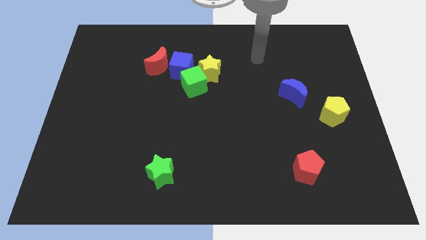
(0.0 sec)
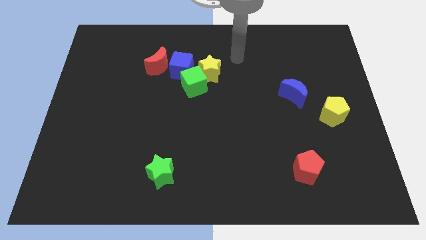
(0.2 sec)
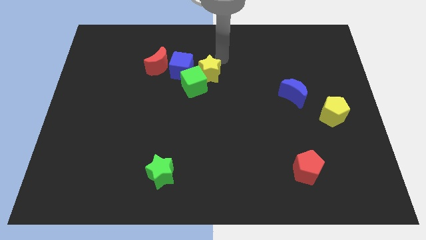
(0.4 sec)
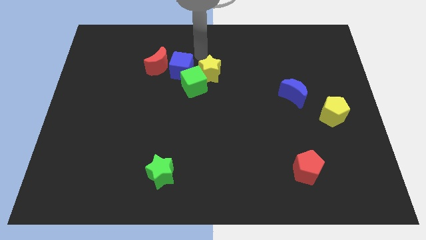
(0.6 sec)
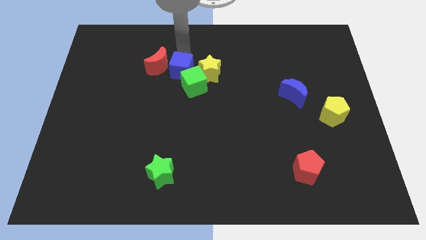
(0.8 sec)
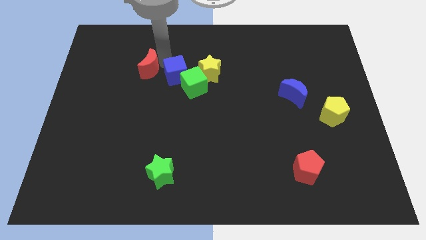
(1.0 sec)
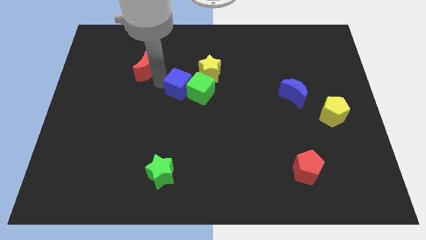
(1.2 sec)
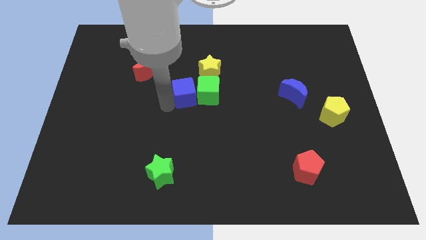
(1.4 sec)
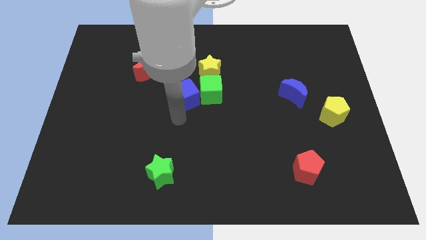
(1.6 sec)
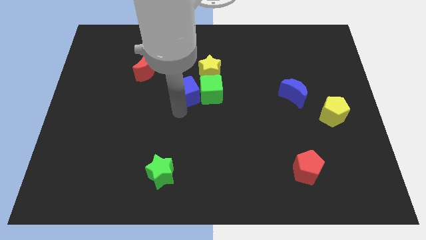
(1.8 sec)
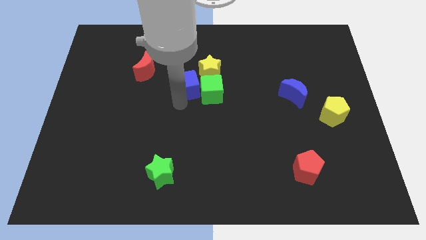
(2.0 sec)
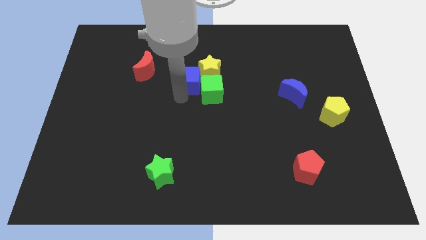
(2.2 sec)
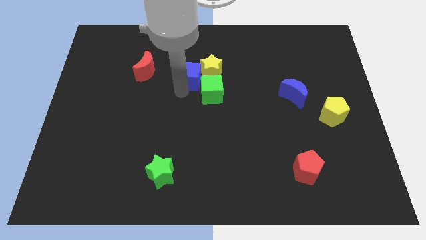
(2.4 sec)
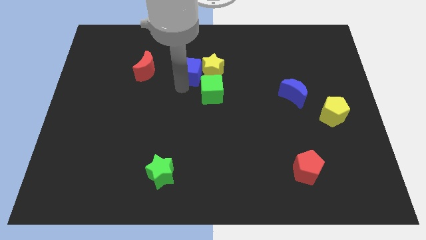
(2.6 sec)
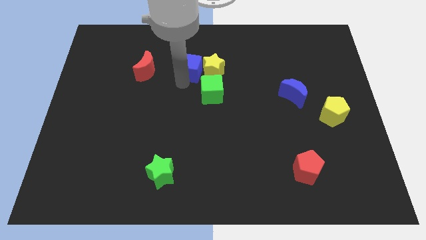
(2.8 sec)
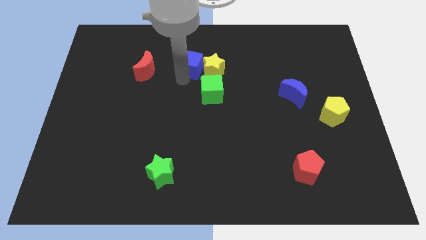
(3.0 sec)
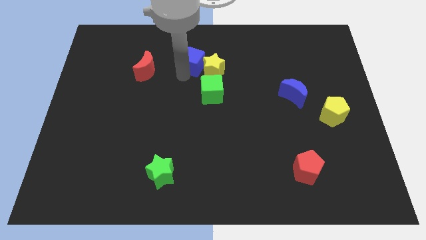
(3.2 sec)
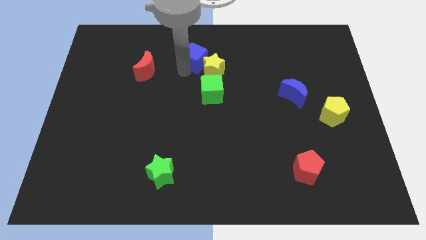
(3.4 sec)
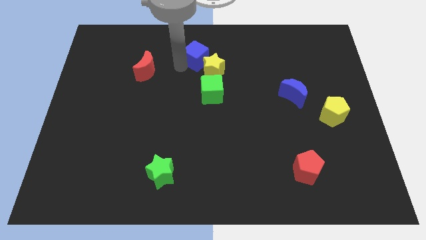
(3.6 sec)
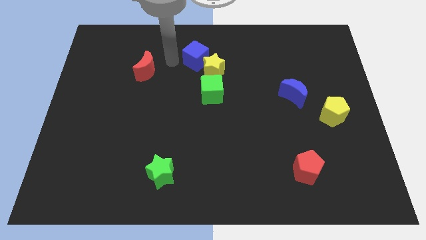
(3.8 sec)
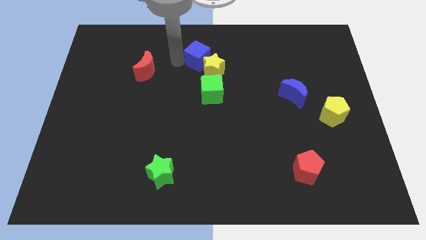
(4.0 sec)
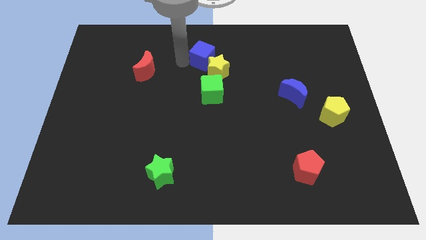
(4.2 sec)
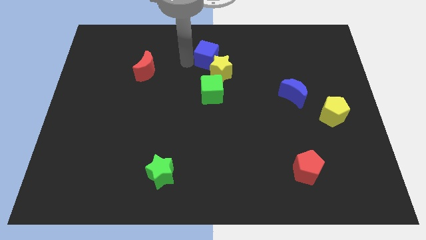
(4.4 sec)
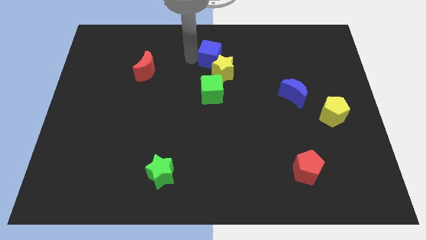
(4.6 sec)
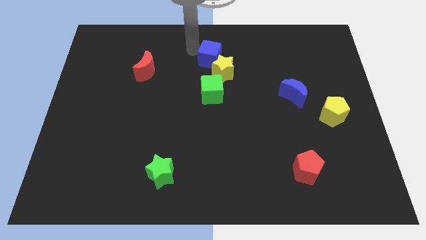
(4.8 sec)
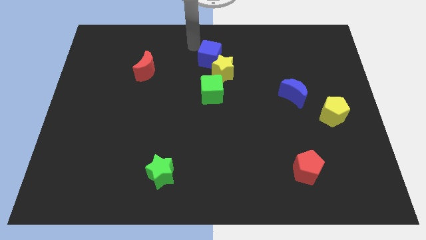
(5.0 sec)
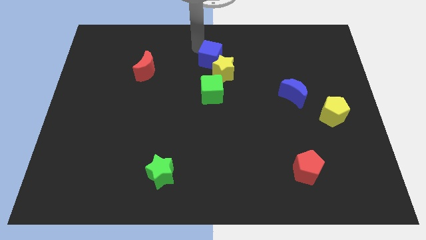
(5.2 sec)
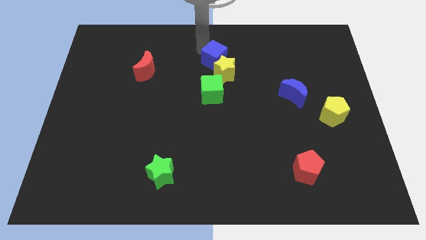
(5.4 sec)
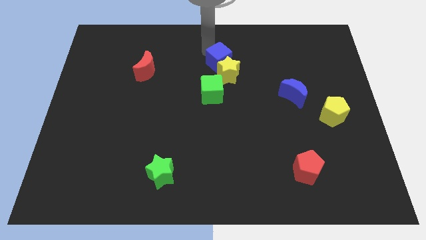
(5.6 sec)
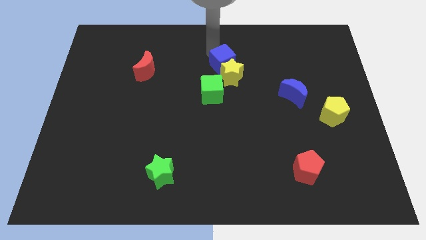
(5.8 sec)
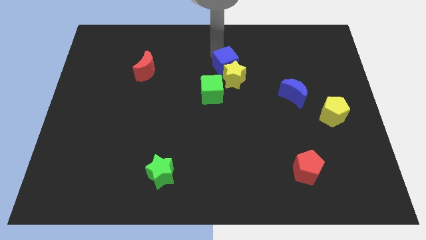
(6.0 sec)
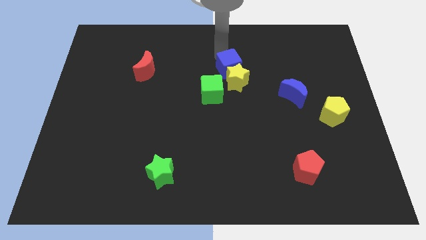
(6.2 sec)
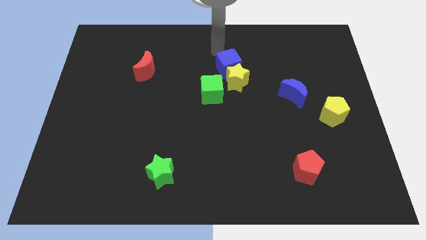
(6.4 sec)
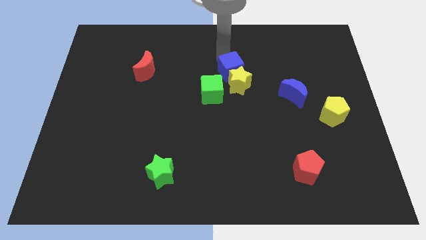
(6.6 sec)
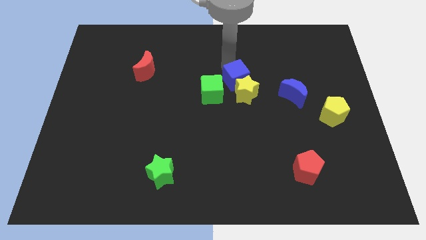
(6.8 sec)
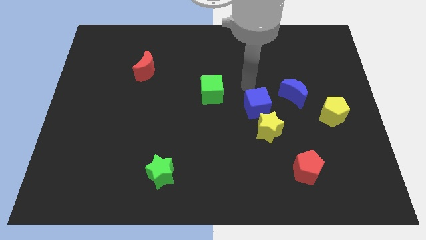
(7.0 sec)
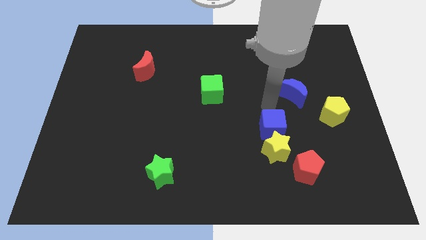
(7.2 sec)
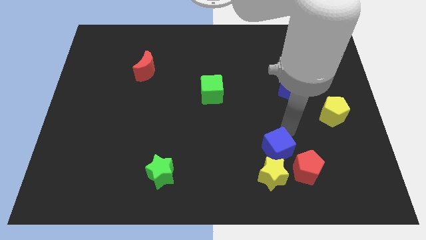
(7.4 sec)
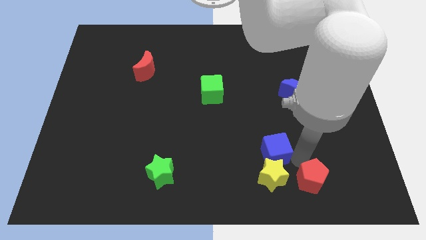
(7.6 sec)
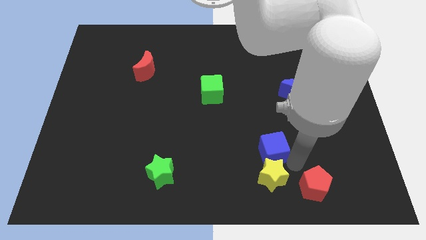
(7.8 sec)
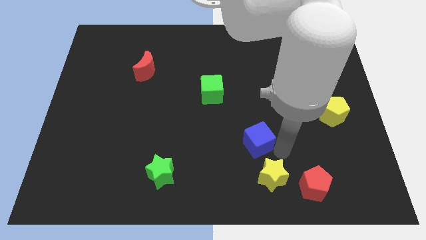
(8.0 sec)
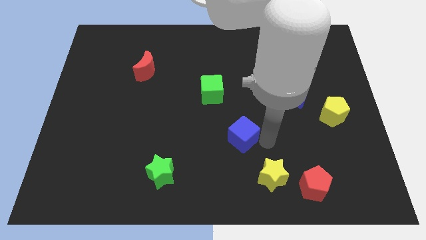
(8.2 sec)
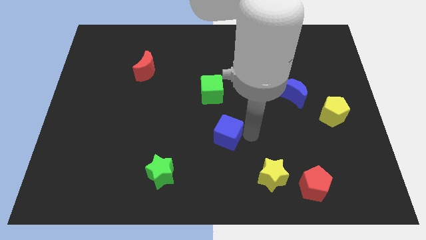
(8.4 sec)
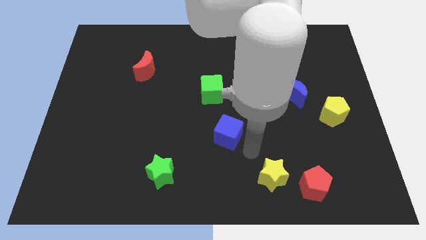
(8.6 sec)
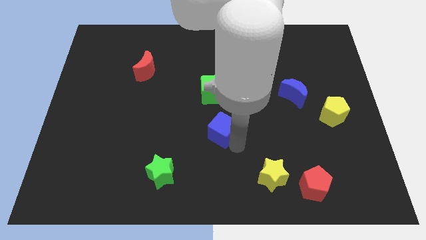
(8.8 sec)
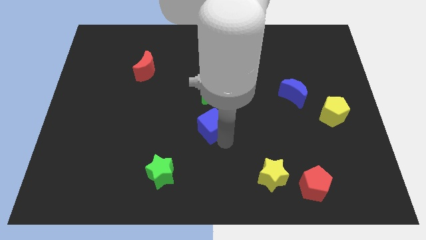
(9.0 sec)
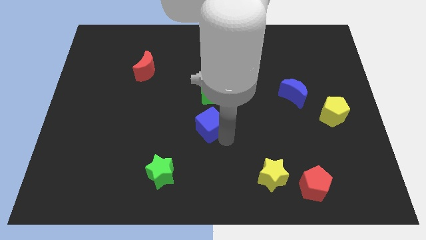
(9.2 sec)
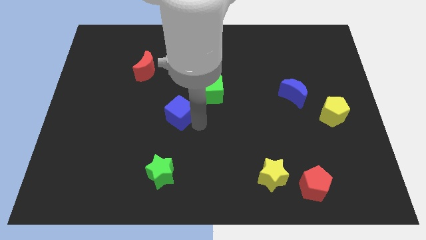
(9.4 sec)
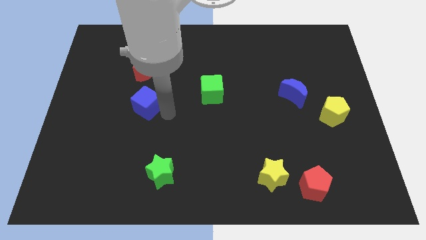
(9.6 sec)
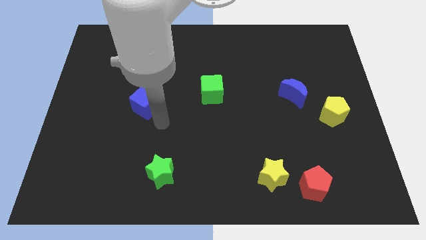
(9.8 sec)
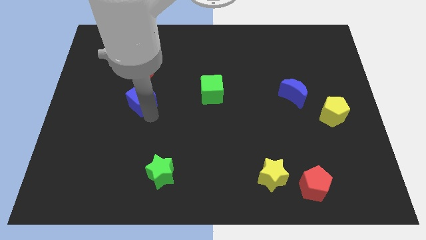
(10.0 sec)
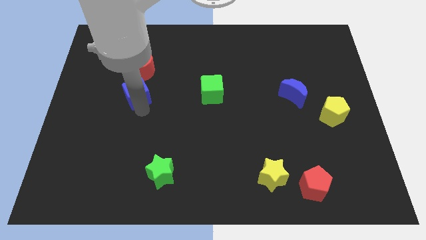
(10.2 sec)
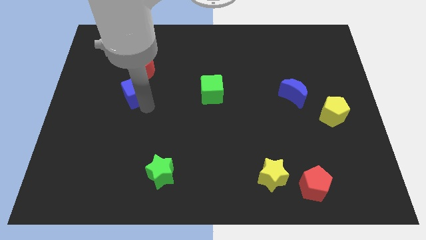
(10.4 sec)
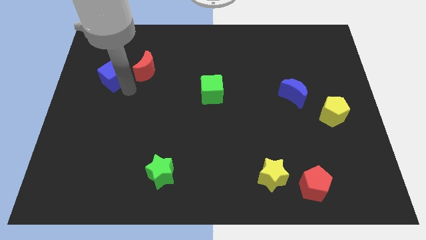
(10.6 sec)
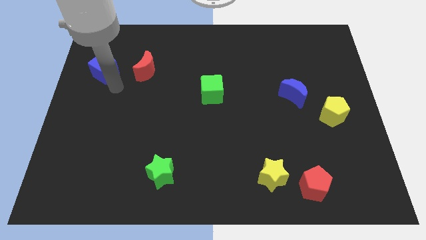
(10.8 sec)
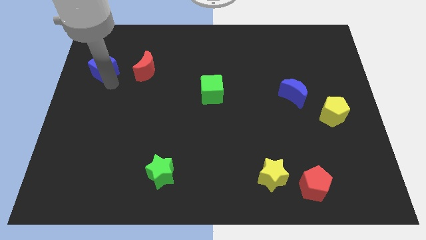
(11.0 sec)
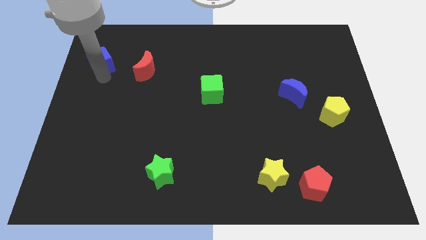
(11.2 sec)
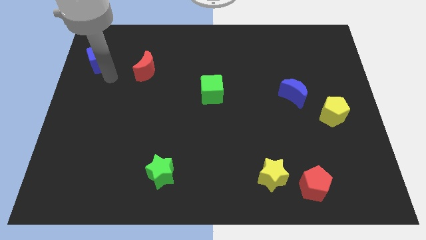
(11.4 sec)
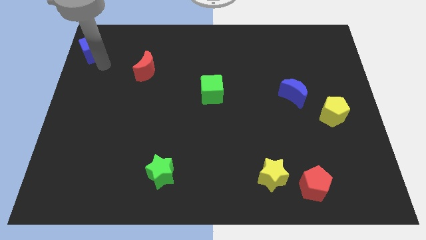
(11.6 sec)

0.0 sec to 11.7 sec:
move the blue cube to the top left
